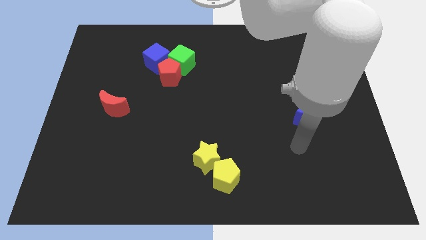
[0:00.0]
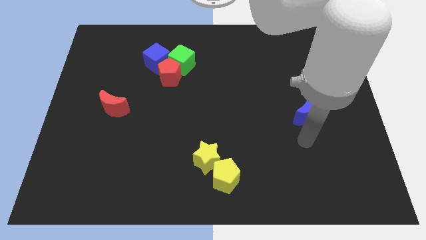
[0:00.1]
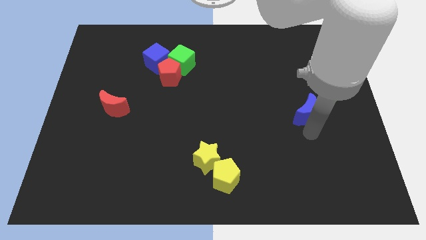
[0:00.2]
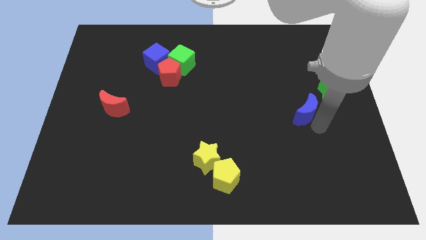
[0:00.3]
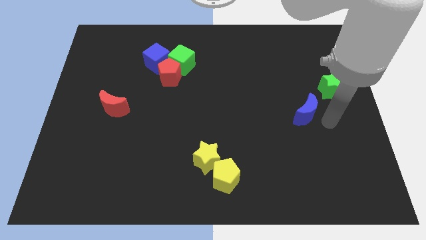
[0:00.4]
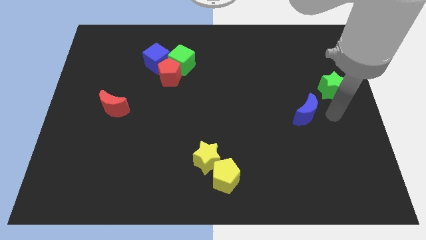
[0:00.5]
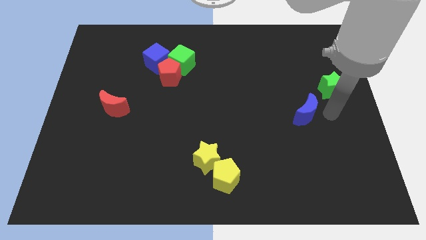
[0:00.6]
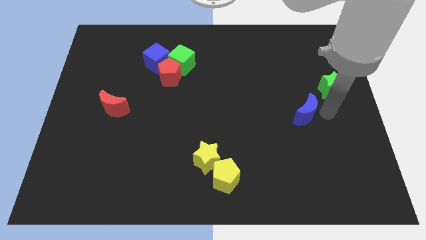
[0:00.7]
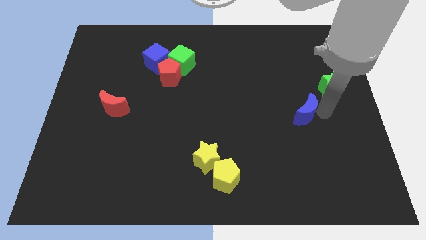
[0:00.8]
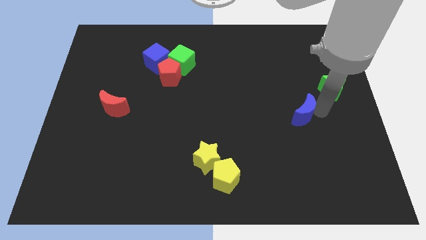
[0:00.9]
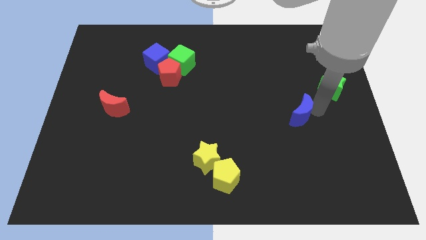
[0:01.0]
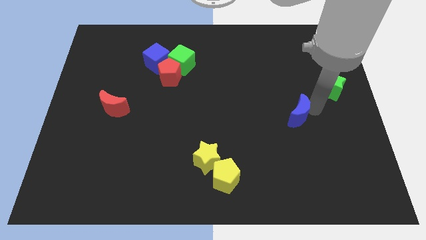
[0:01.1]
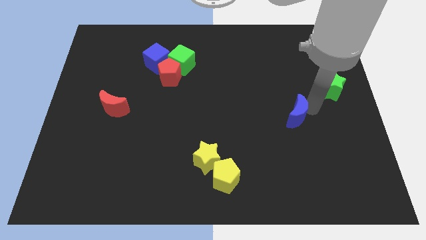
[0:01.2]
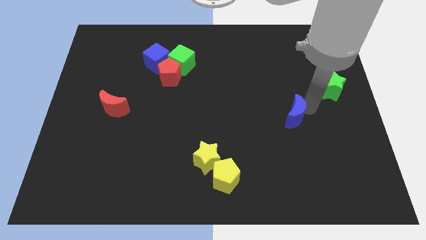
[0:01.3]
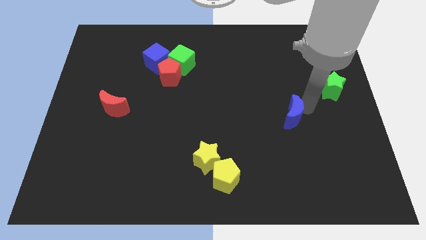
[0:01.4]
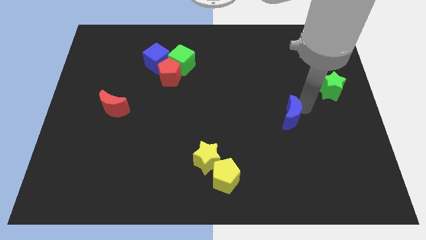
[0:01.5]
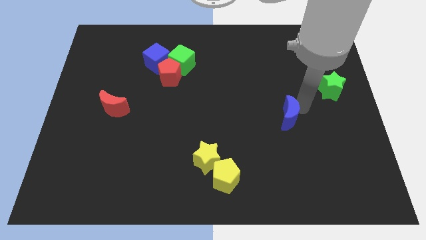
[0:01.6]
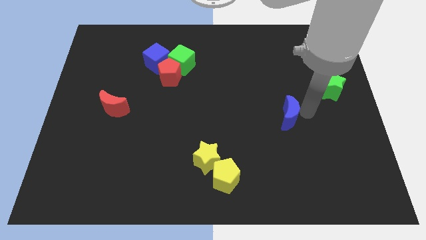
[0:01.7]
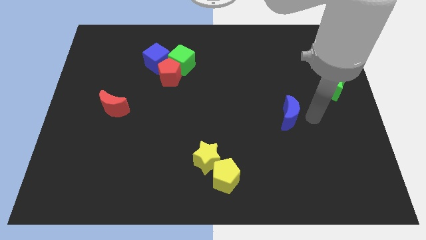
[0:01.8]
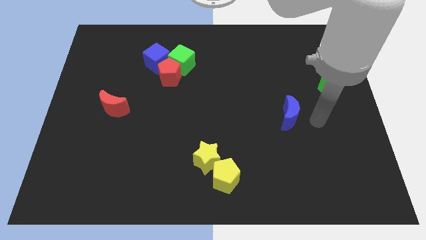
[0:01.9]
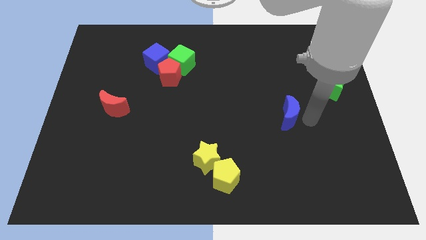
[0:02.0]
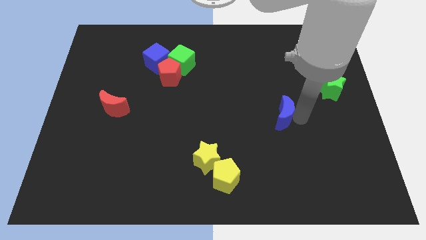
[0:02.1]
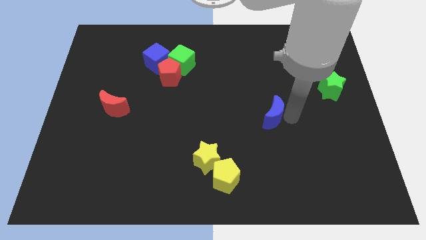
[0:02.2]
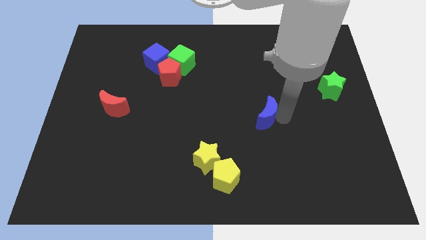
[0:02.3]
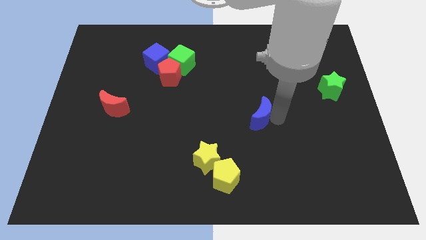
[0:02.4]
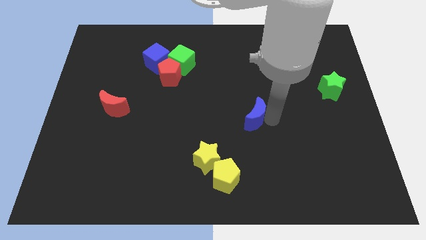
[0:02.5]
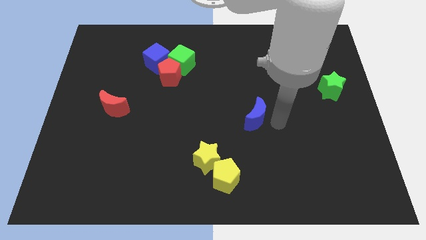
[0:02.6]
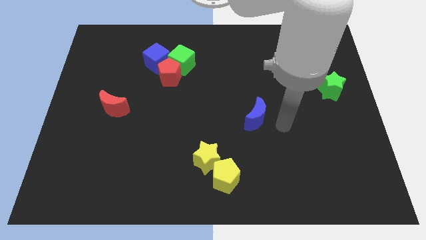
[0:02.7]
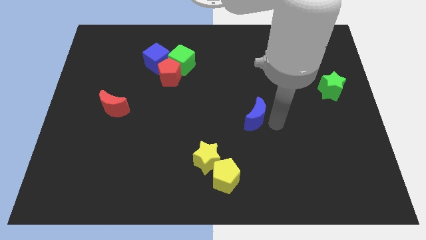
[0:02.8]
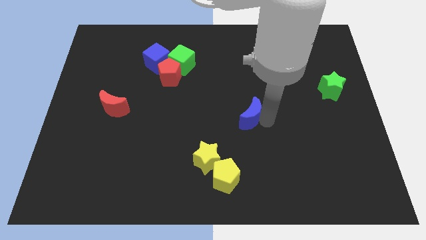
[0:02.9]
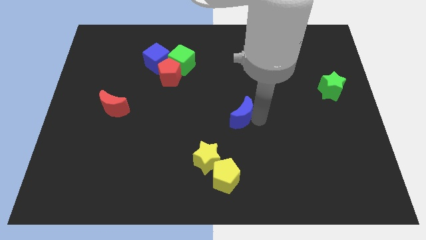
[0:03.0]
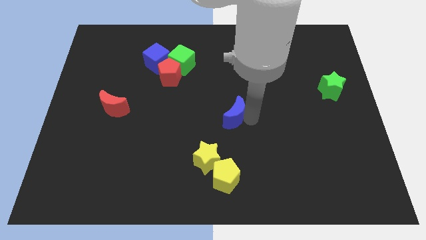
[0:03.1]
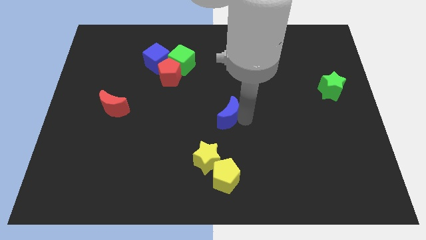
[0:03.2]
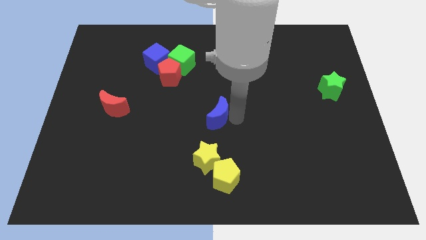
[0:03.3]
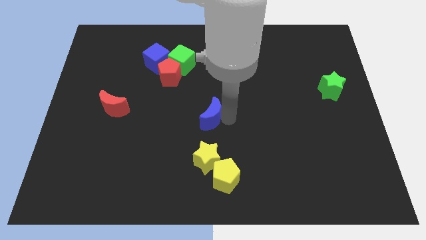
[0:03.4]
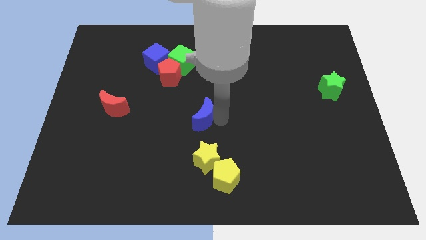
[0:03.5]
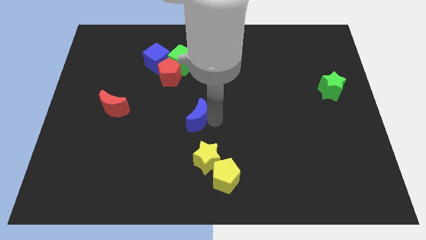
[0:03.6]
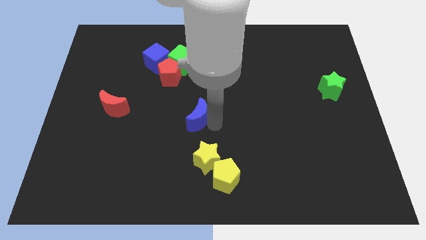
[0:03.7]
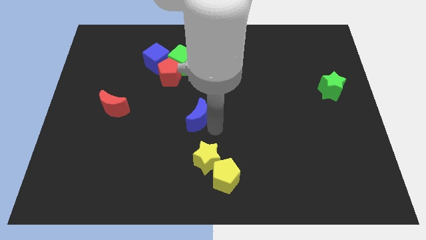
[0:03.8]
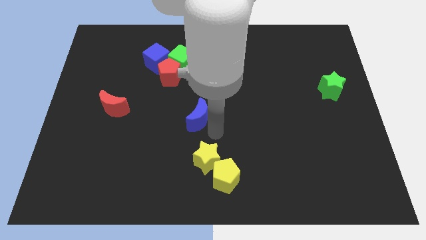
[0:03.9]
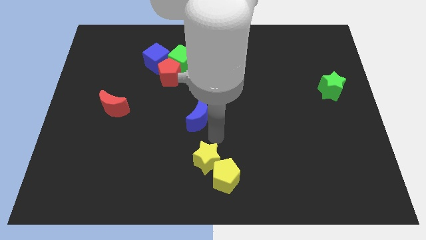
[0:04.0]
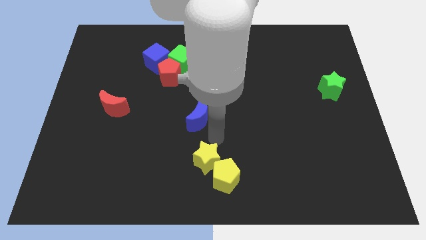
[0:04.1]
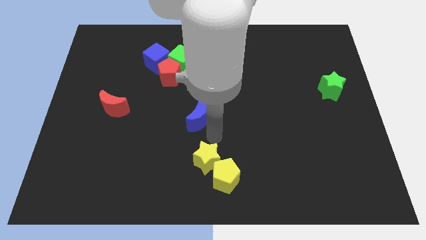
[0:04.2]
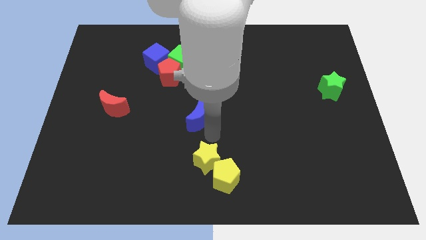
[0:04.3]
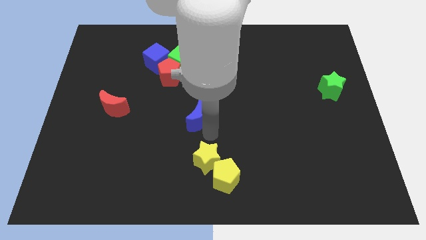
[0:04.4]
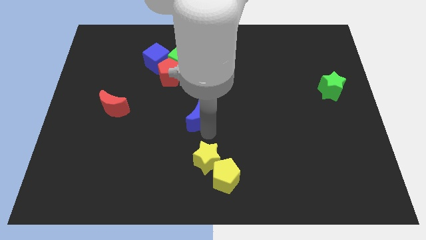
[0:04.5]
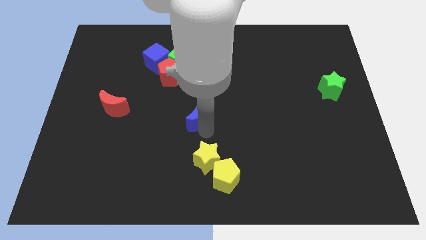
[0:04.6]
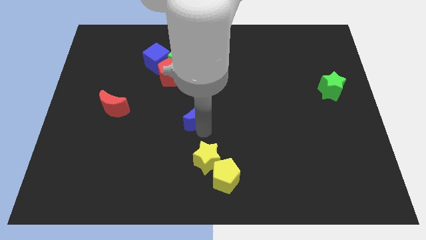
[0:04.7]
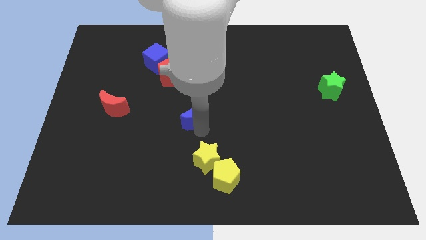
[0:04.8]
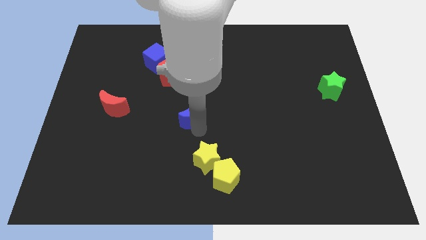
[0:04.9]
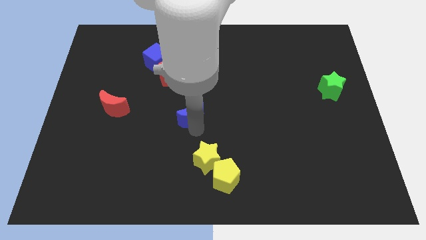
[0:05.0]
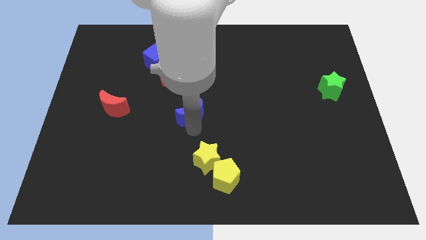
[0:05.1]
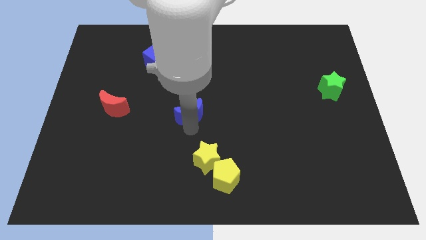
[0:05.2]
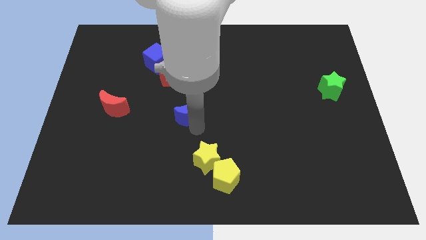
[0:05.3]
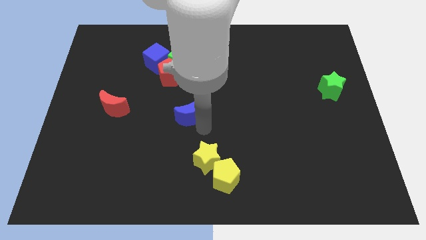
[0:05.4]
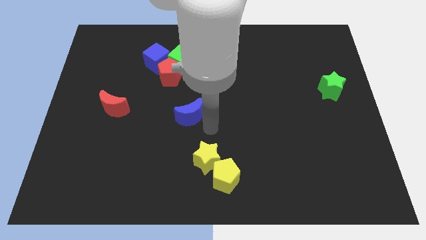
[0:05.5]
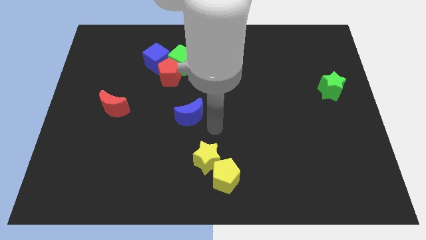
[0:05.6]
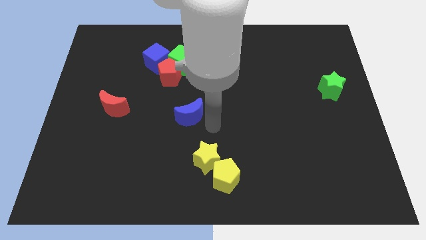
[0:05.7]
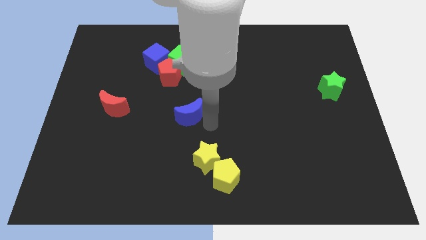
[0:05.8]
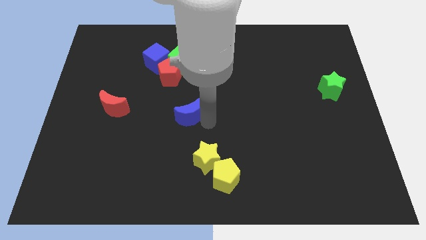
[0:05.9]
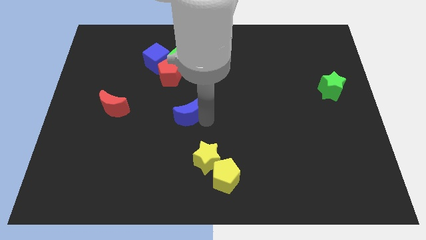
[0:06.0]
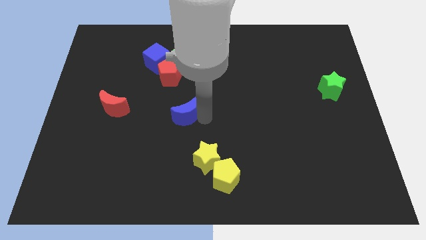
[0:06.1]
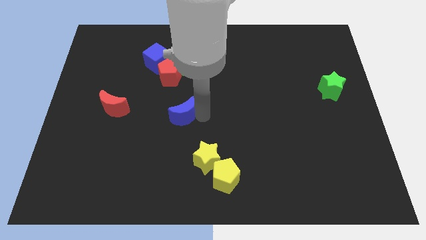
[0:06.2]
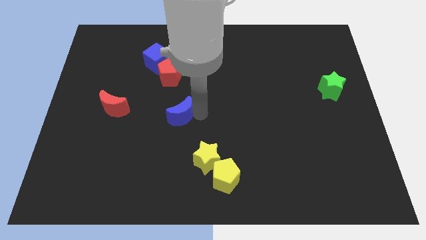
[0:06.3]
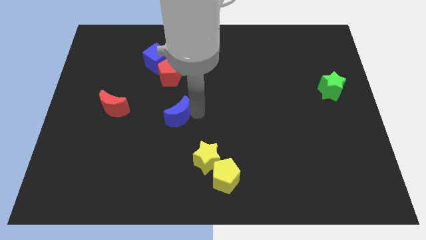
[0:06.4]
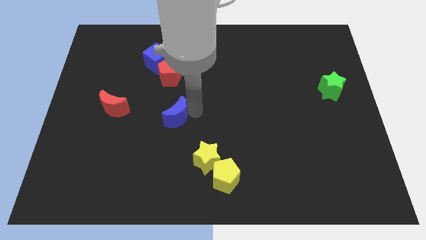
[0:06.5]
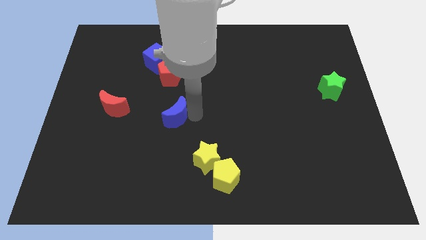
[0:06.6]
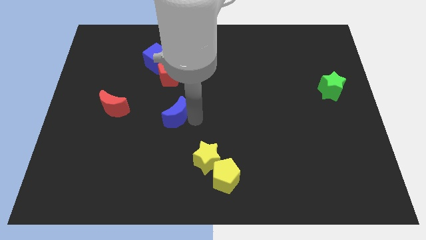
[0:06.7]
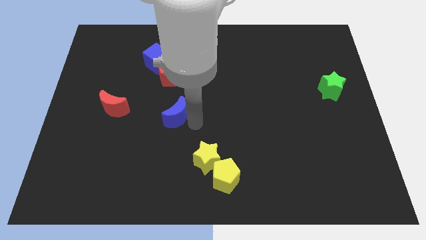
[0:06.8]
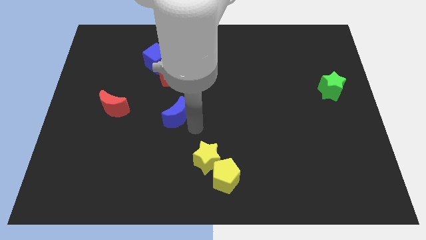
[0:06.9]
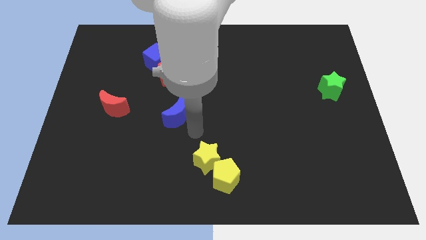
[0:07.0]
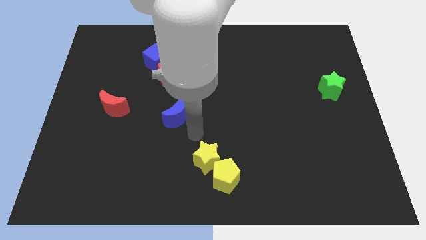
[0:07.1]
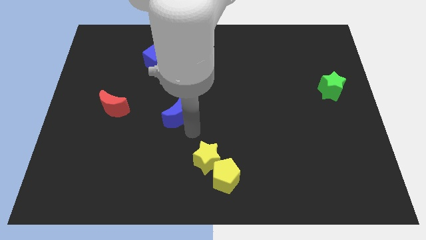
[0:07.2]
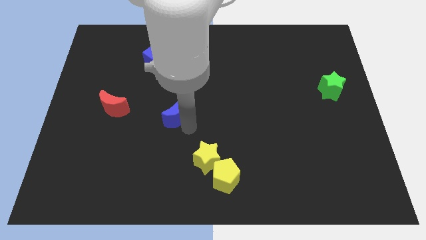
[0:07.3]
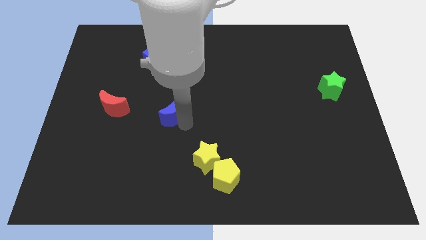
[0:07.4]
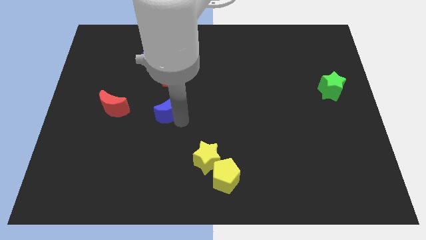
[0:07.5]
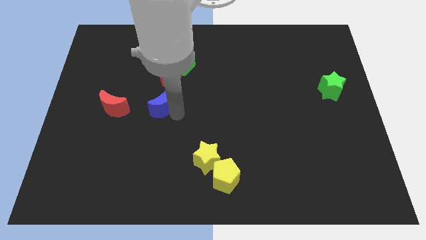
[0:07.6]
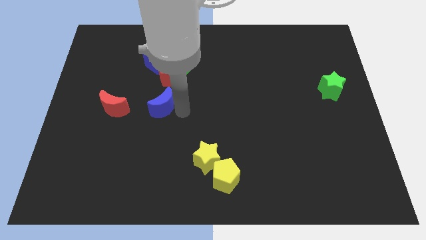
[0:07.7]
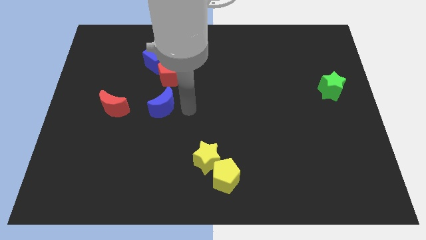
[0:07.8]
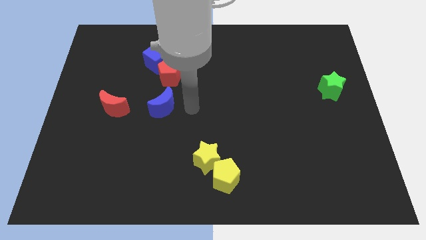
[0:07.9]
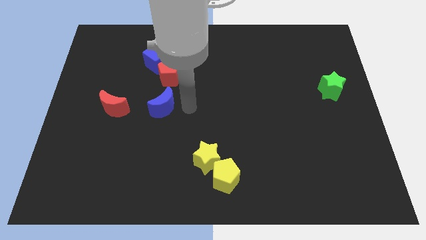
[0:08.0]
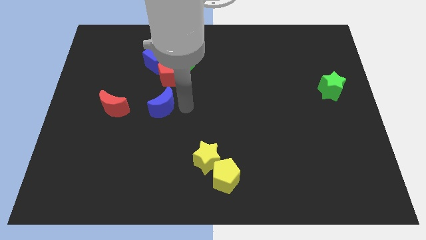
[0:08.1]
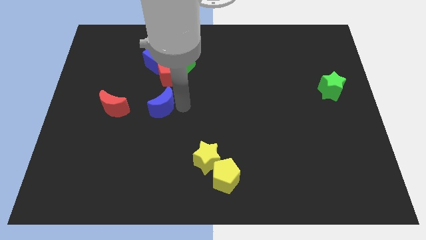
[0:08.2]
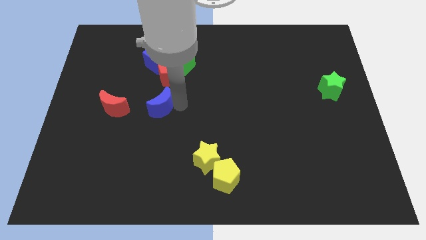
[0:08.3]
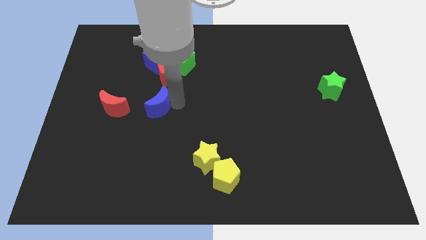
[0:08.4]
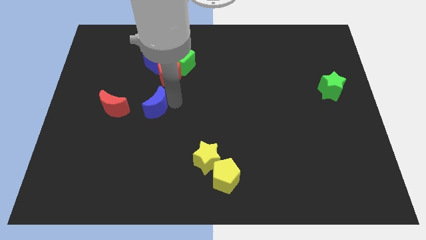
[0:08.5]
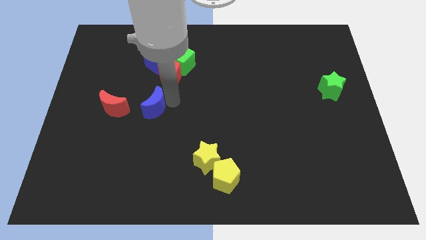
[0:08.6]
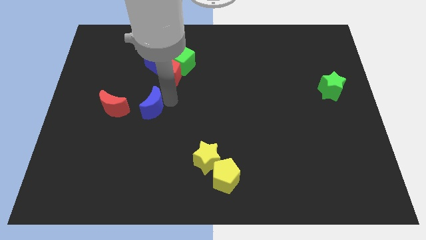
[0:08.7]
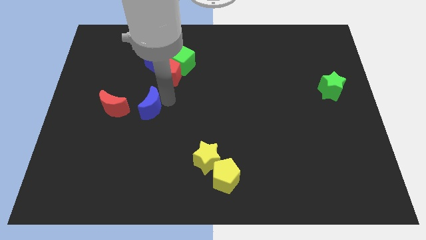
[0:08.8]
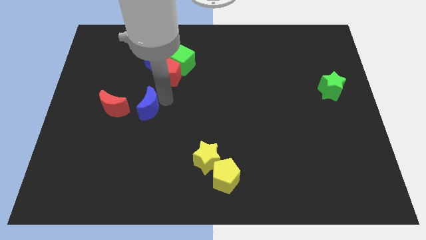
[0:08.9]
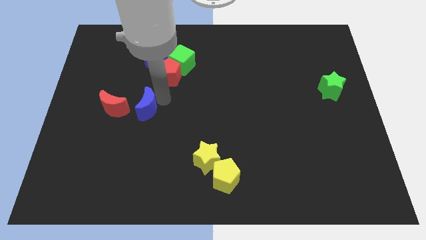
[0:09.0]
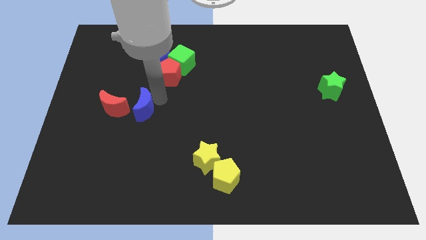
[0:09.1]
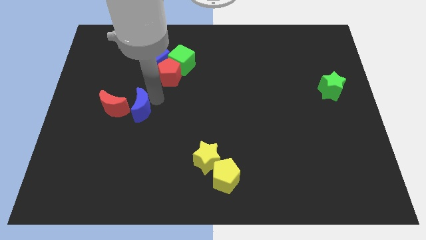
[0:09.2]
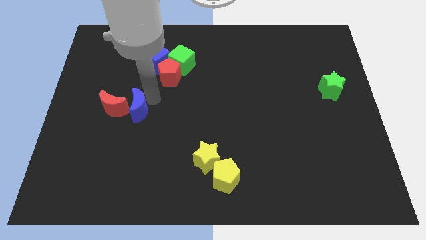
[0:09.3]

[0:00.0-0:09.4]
move the blue moon to the red moon
